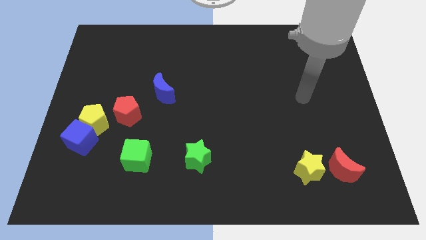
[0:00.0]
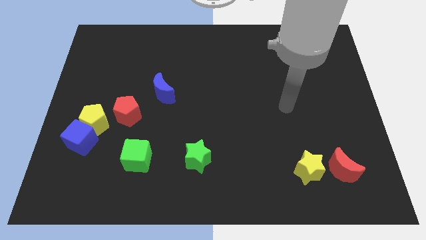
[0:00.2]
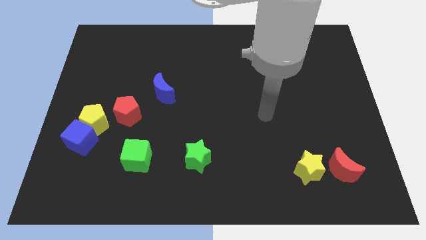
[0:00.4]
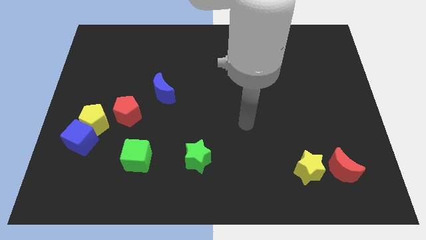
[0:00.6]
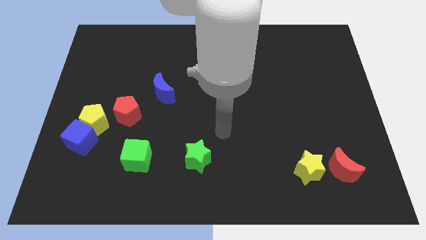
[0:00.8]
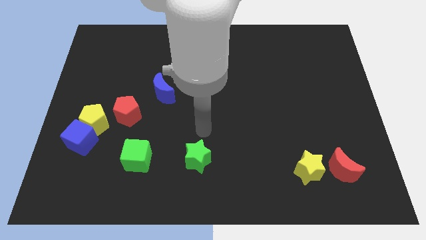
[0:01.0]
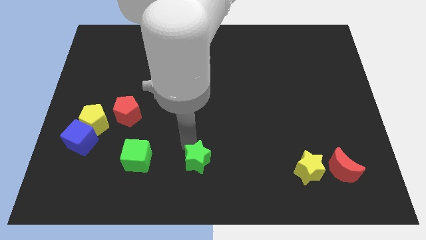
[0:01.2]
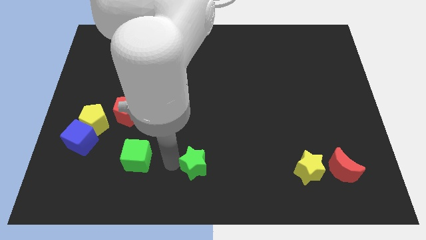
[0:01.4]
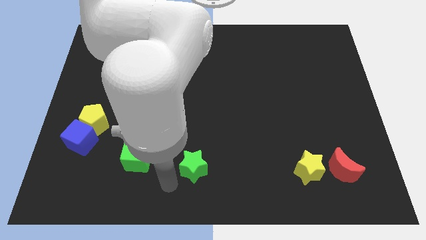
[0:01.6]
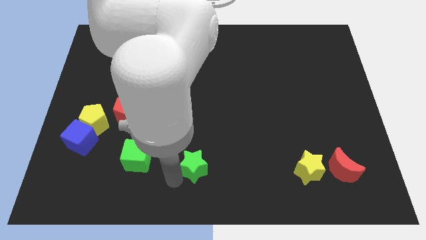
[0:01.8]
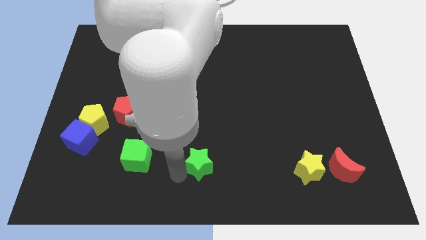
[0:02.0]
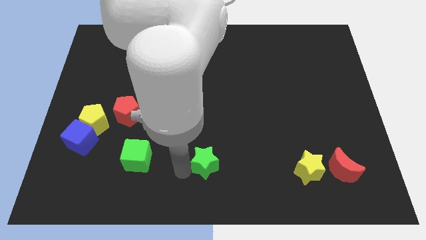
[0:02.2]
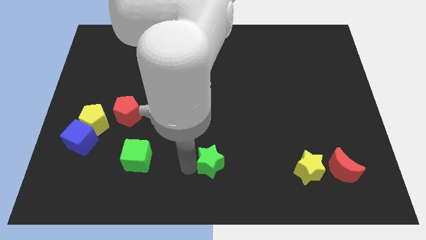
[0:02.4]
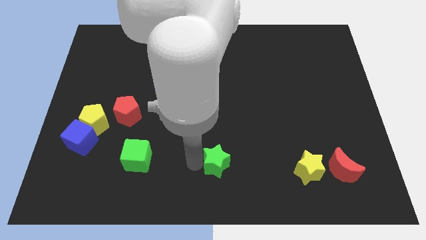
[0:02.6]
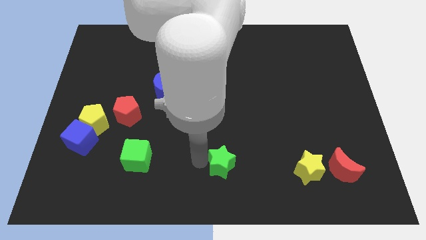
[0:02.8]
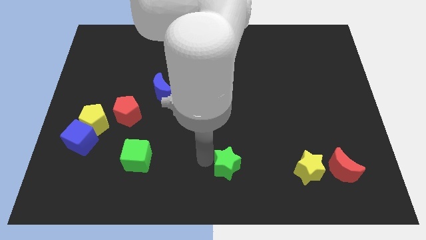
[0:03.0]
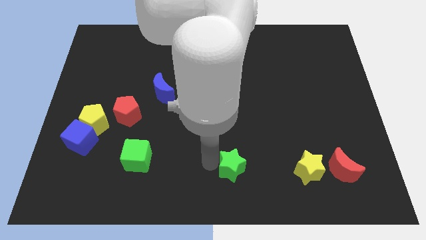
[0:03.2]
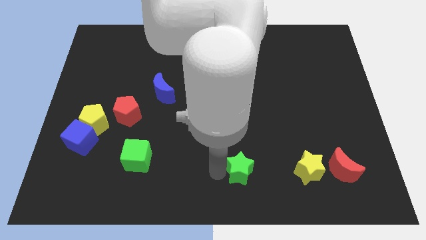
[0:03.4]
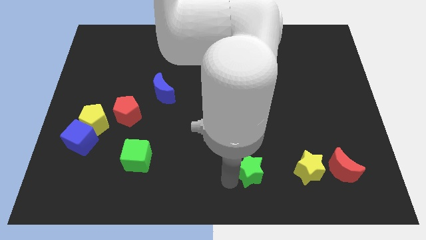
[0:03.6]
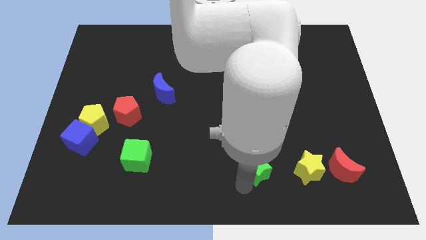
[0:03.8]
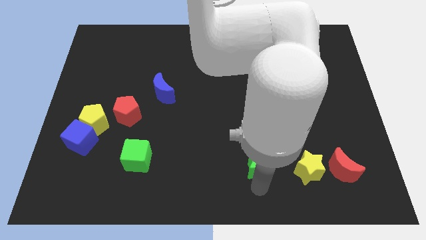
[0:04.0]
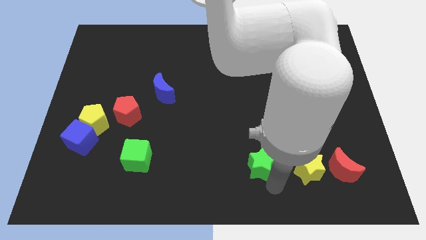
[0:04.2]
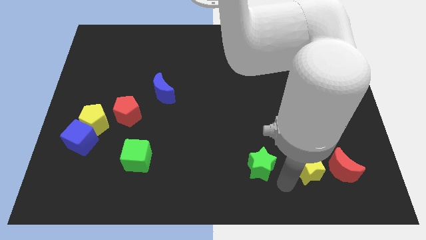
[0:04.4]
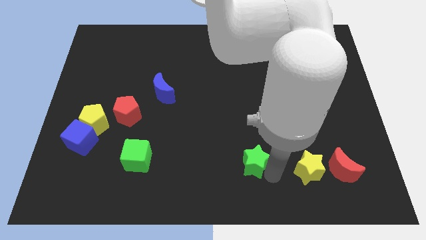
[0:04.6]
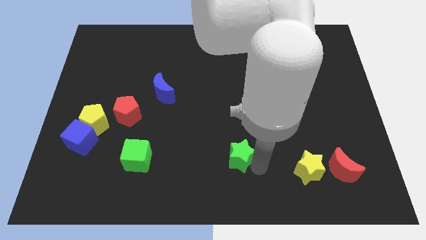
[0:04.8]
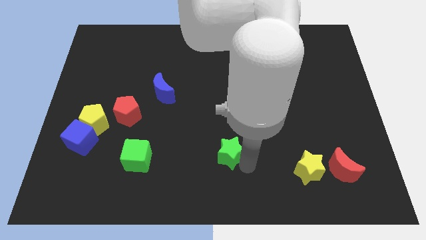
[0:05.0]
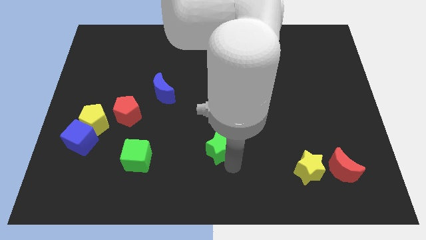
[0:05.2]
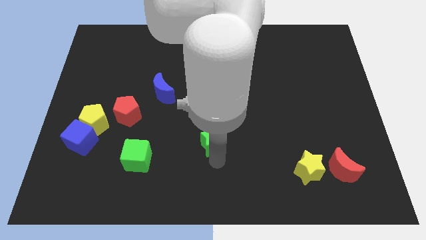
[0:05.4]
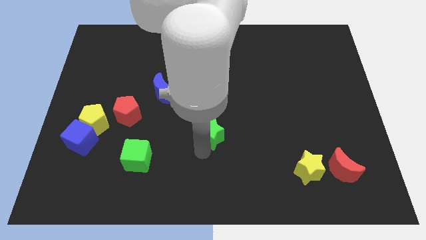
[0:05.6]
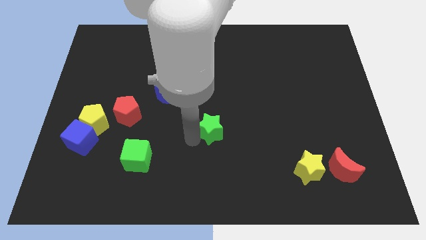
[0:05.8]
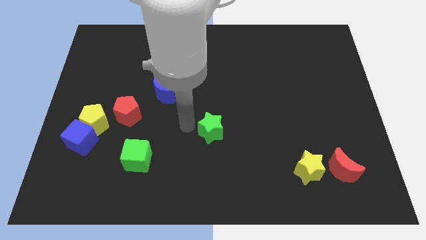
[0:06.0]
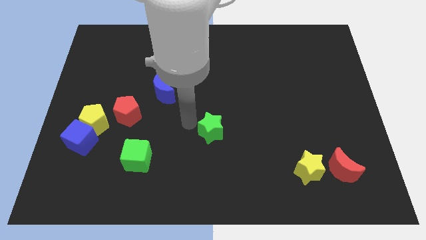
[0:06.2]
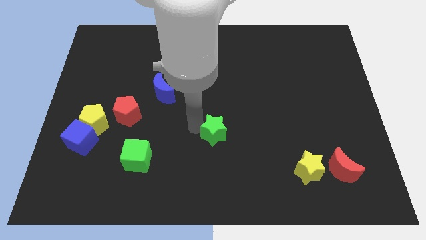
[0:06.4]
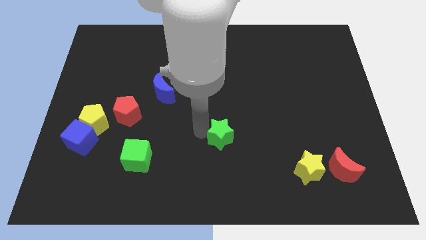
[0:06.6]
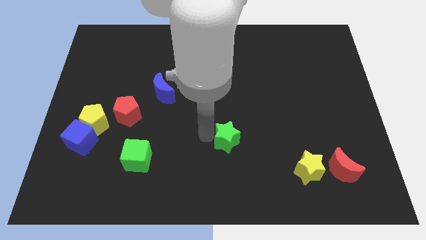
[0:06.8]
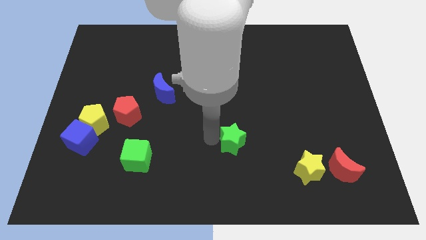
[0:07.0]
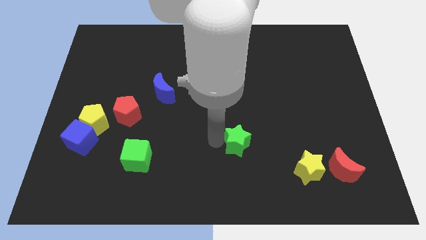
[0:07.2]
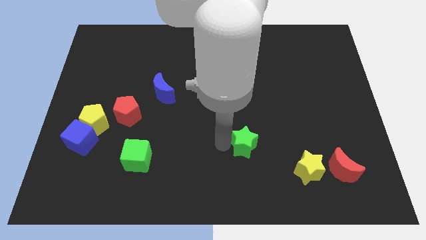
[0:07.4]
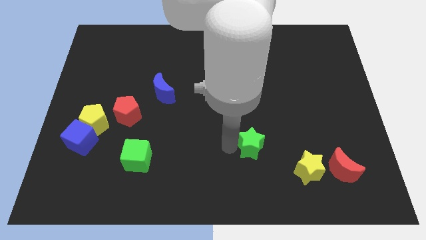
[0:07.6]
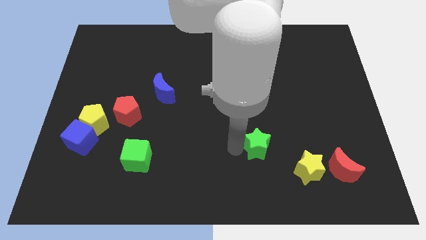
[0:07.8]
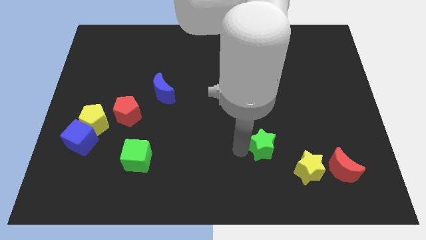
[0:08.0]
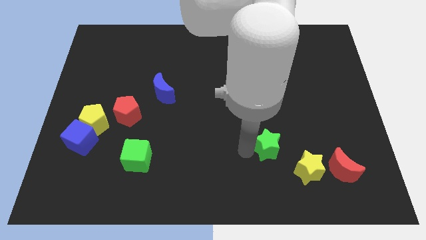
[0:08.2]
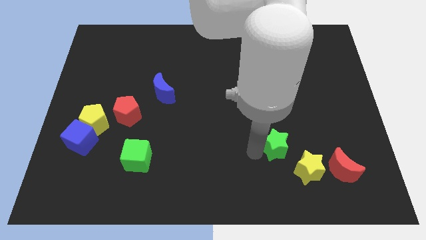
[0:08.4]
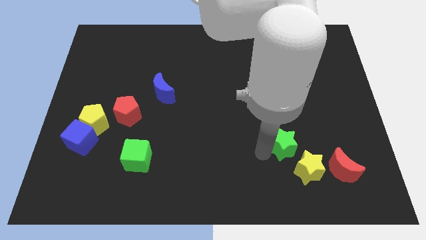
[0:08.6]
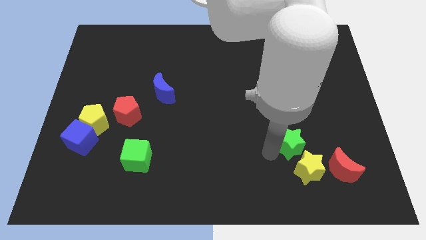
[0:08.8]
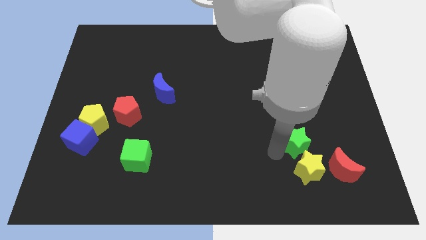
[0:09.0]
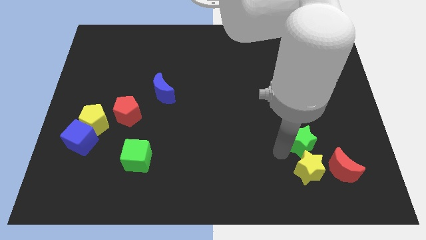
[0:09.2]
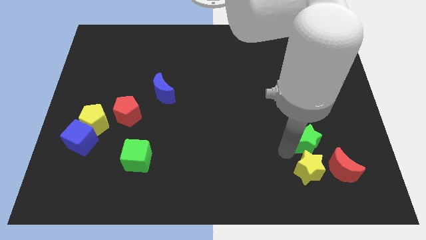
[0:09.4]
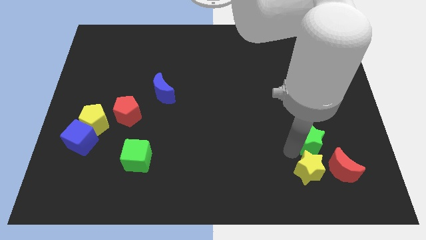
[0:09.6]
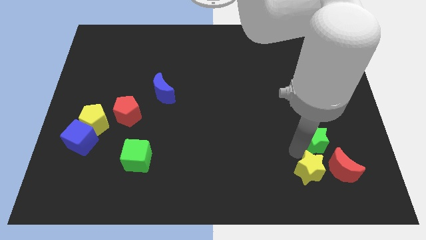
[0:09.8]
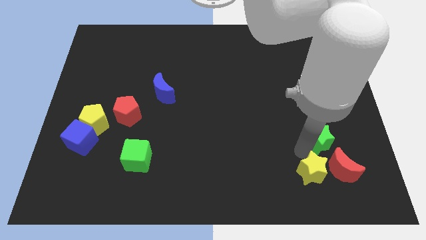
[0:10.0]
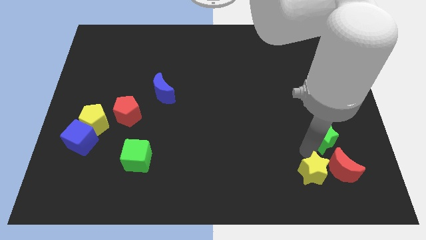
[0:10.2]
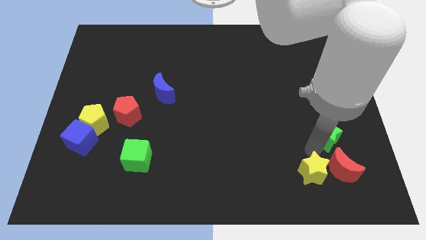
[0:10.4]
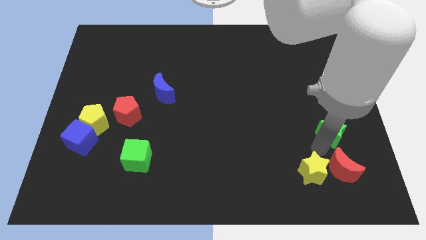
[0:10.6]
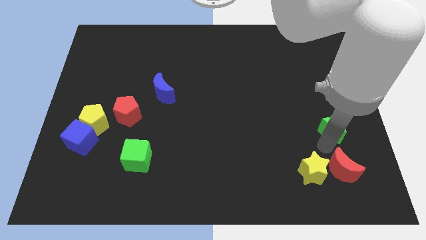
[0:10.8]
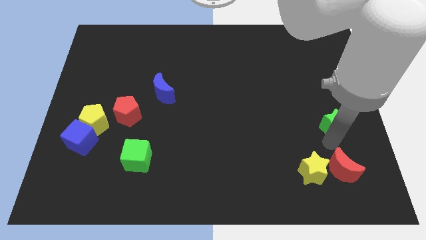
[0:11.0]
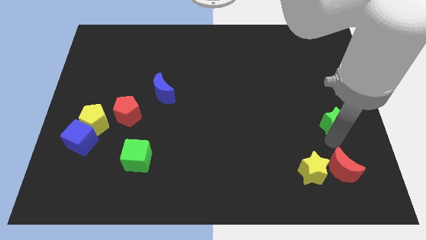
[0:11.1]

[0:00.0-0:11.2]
move the green star to the center right

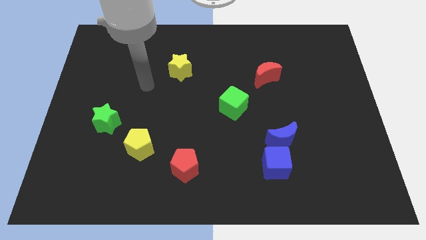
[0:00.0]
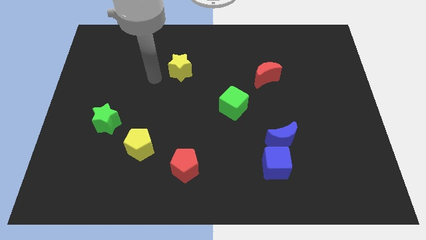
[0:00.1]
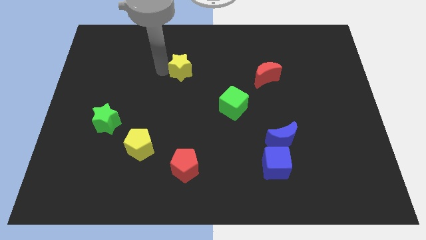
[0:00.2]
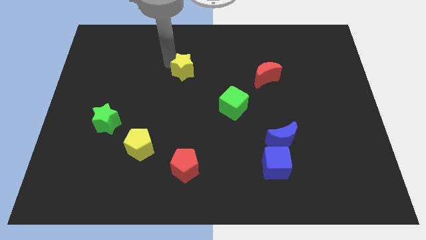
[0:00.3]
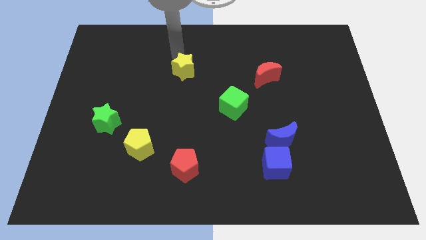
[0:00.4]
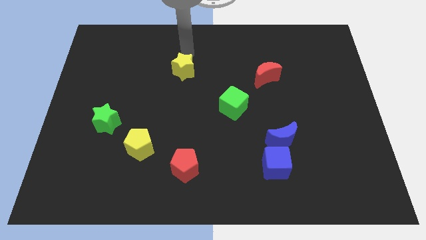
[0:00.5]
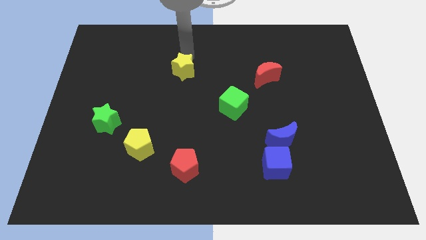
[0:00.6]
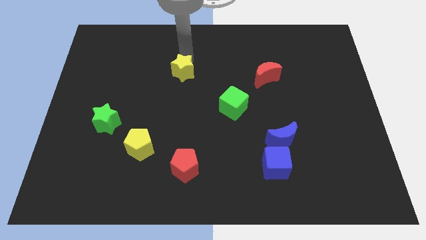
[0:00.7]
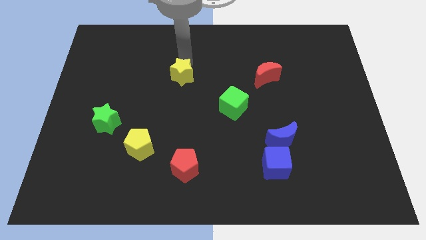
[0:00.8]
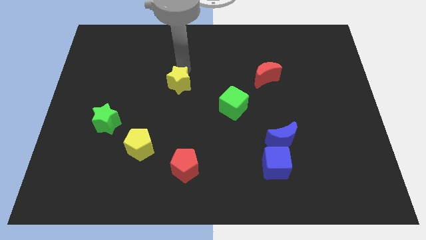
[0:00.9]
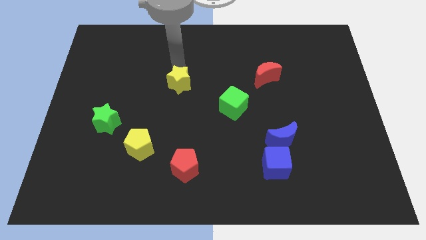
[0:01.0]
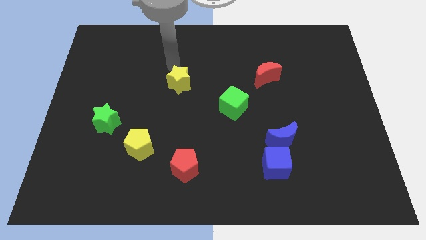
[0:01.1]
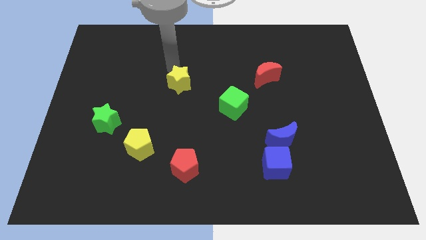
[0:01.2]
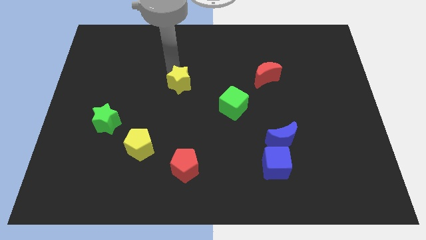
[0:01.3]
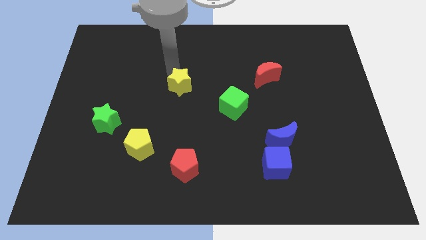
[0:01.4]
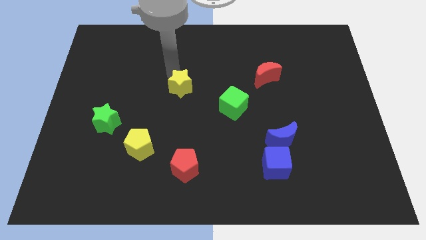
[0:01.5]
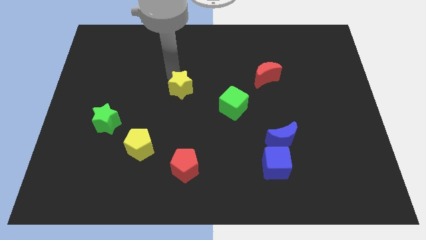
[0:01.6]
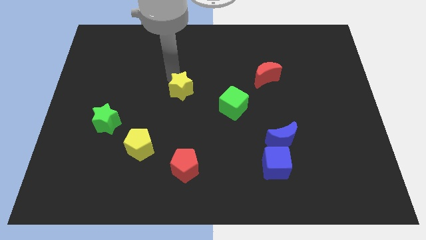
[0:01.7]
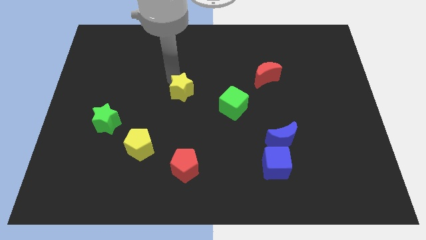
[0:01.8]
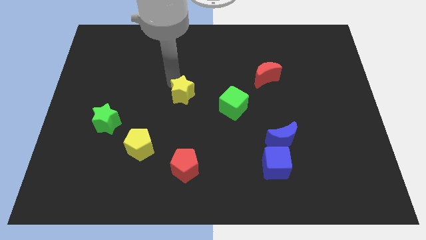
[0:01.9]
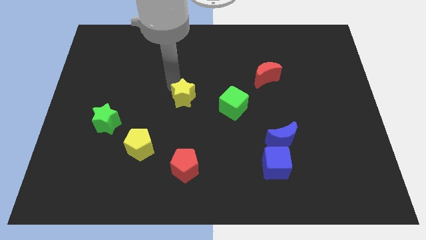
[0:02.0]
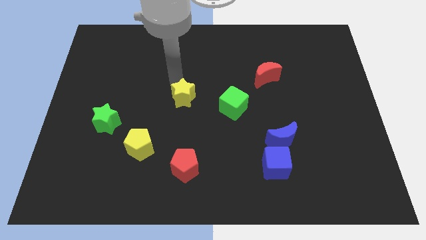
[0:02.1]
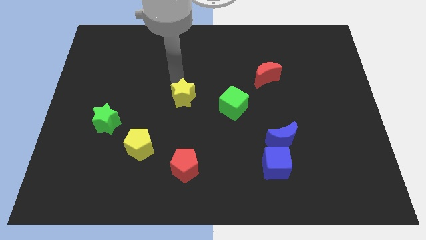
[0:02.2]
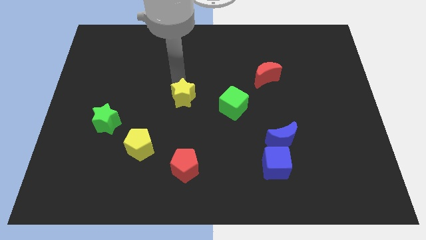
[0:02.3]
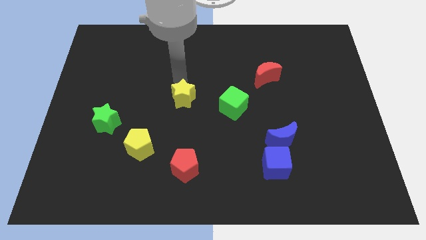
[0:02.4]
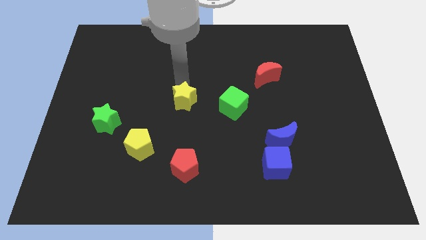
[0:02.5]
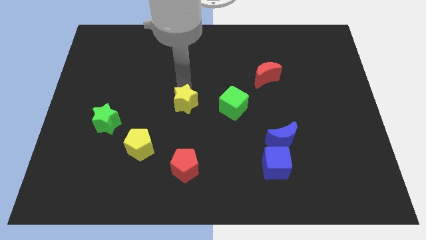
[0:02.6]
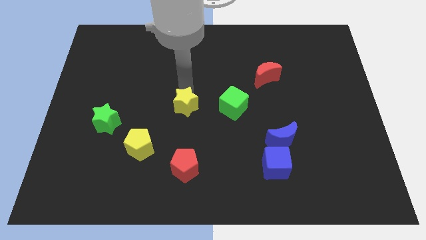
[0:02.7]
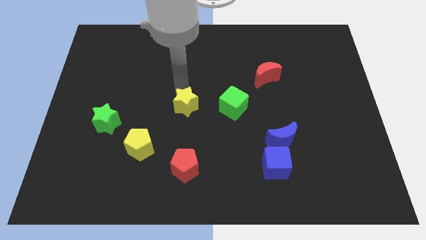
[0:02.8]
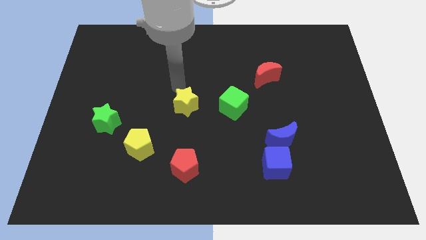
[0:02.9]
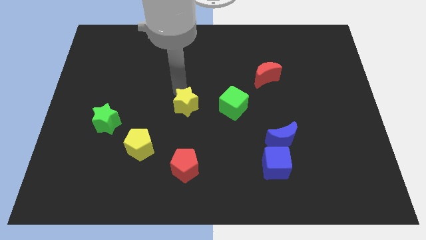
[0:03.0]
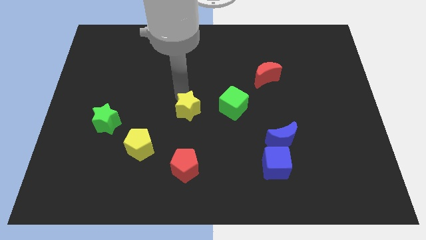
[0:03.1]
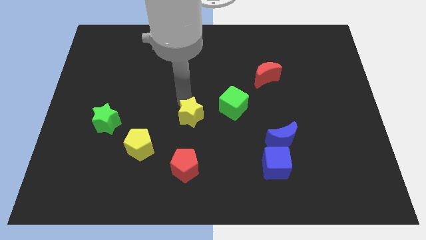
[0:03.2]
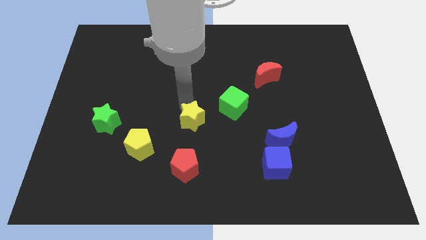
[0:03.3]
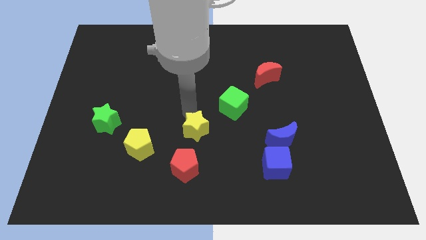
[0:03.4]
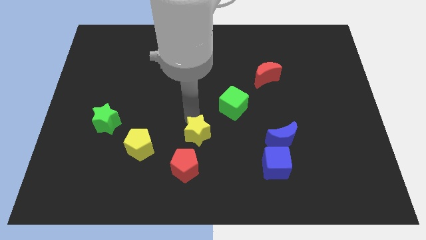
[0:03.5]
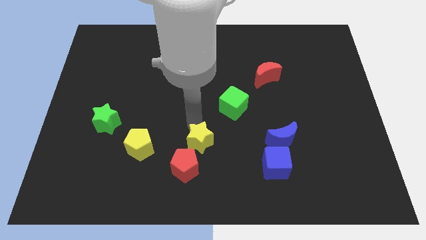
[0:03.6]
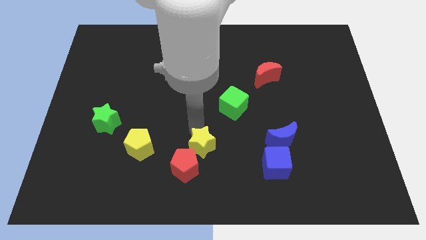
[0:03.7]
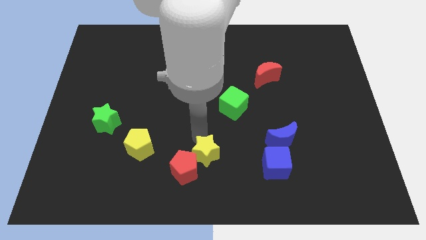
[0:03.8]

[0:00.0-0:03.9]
push the yellow star to the bottom side
